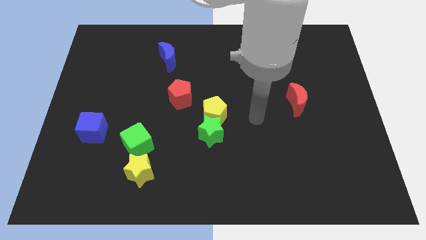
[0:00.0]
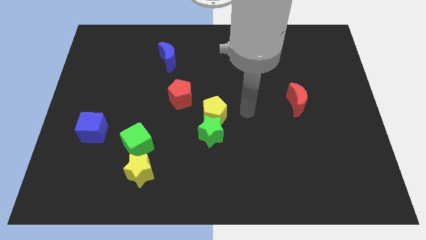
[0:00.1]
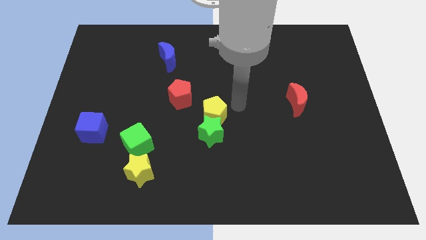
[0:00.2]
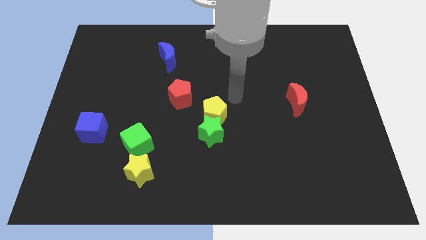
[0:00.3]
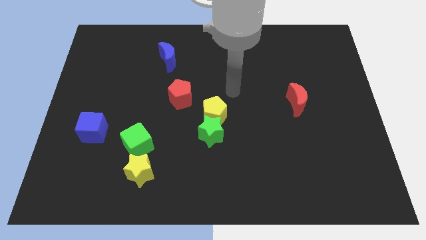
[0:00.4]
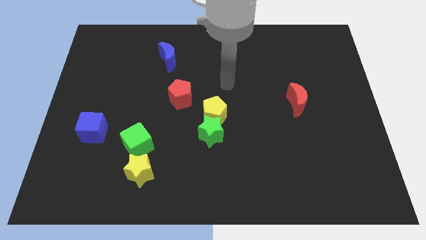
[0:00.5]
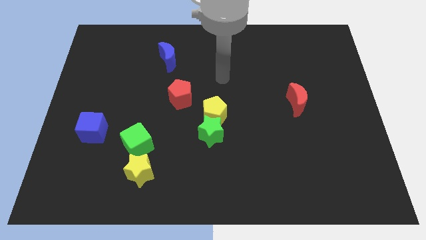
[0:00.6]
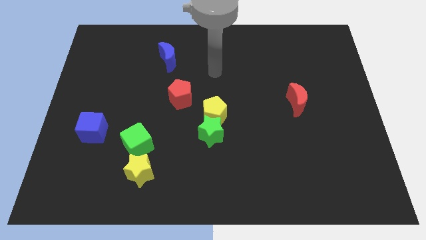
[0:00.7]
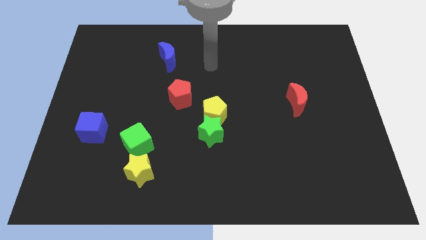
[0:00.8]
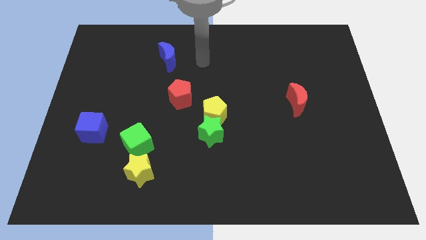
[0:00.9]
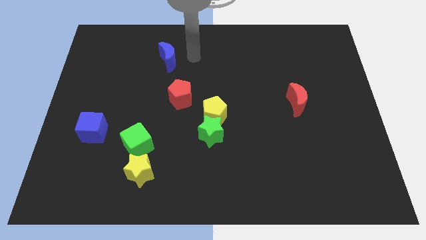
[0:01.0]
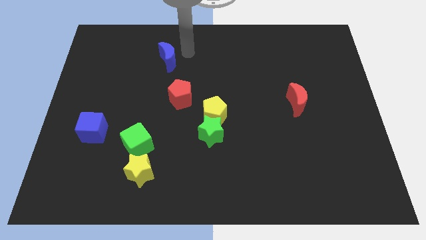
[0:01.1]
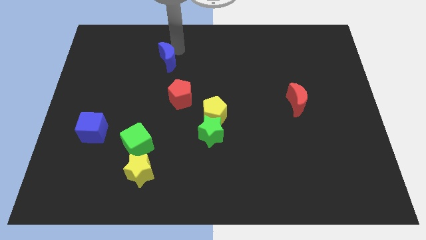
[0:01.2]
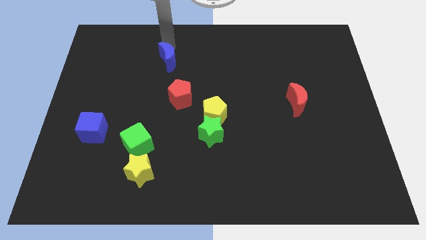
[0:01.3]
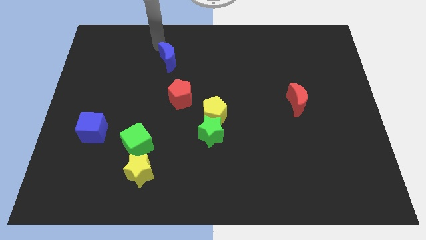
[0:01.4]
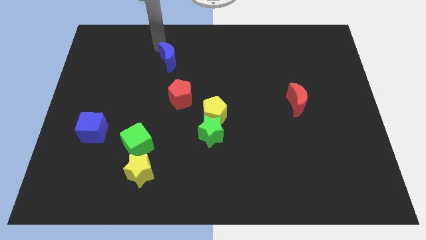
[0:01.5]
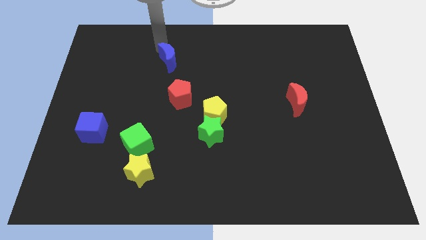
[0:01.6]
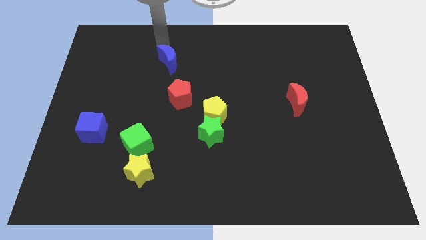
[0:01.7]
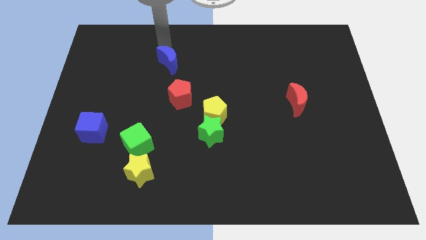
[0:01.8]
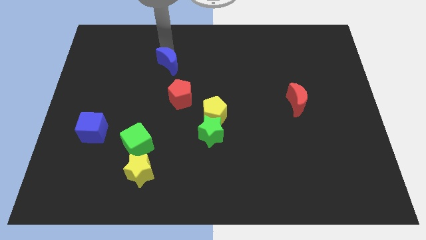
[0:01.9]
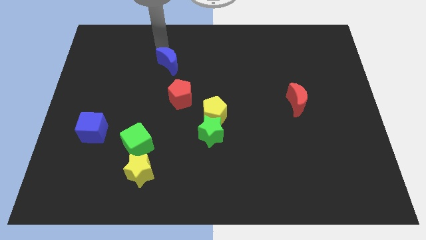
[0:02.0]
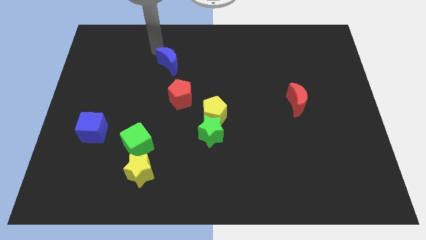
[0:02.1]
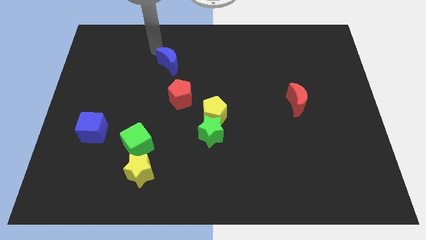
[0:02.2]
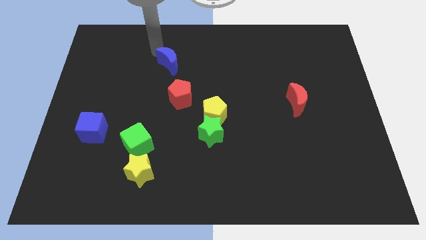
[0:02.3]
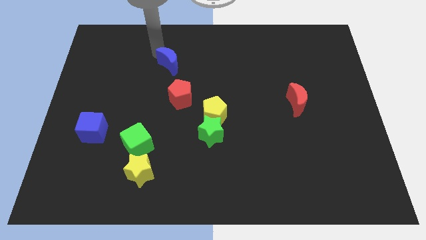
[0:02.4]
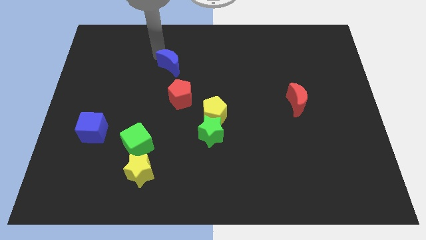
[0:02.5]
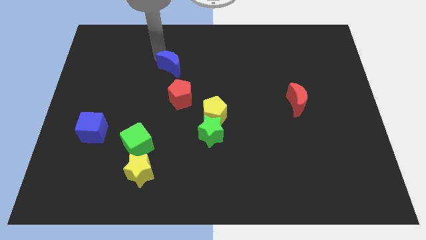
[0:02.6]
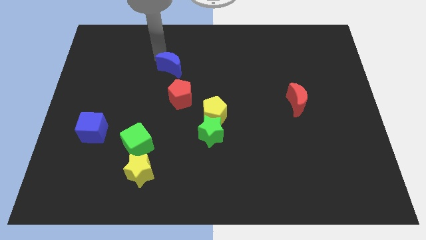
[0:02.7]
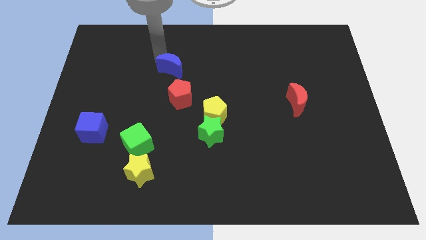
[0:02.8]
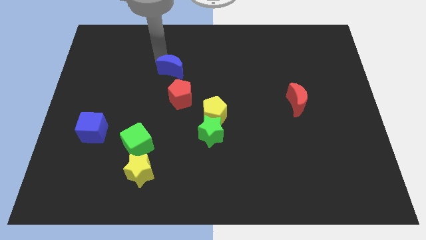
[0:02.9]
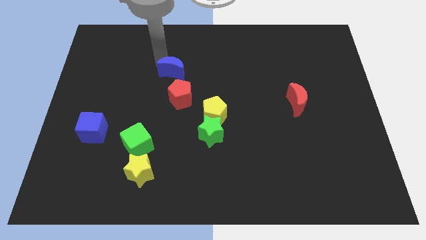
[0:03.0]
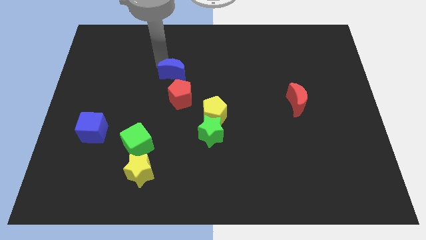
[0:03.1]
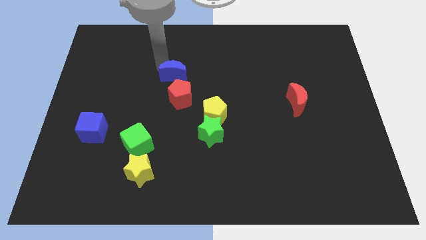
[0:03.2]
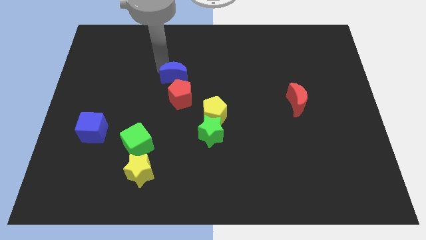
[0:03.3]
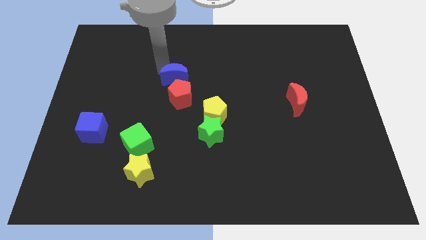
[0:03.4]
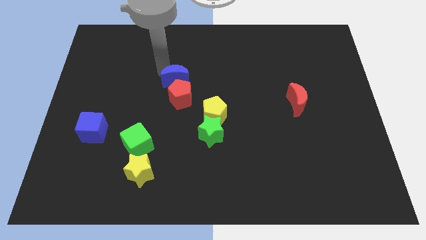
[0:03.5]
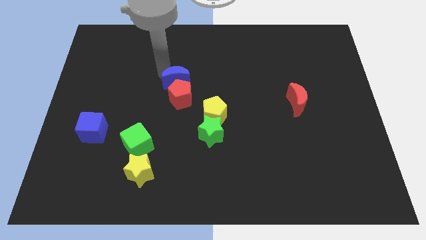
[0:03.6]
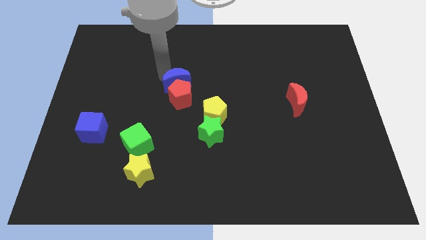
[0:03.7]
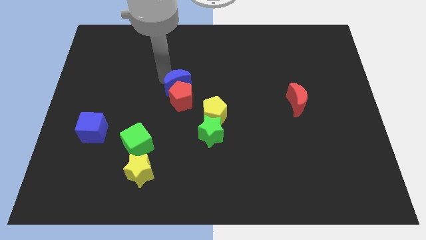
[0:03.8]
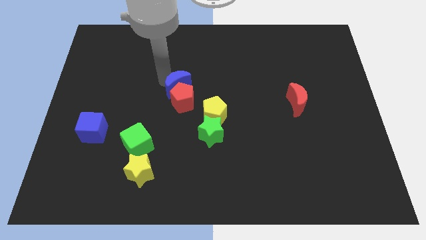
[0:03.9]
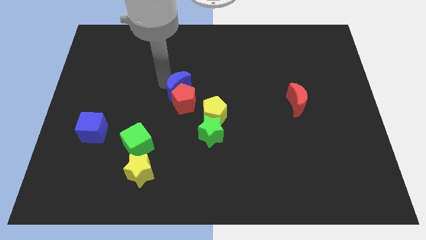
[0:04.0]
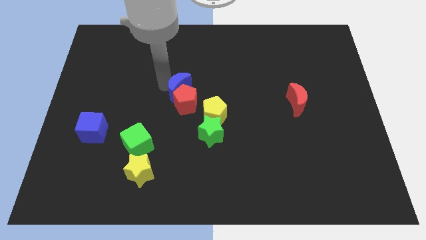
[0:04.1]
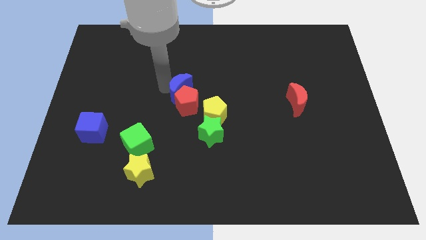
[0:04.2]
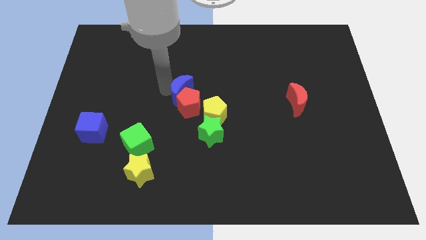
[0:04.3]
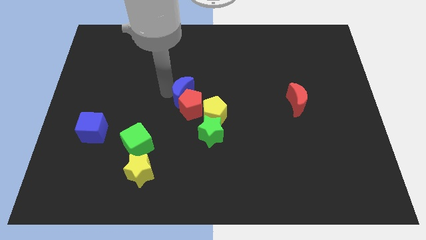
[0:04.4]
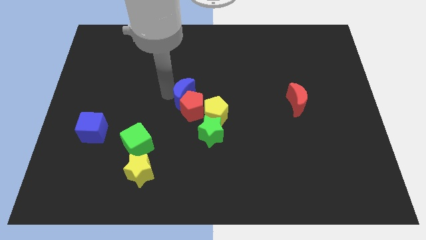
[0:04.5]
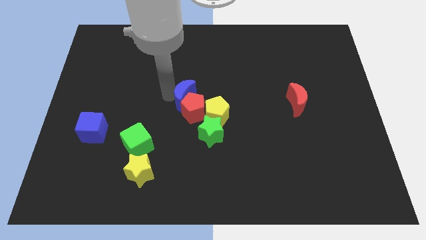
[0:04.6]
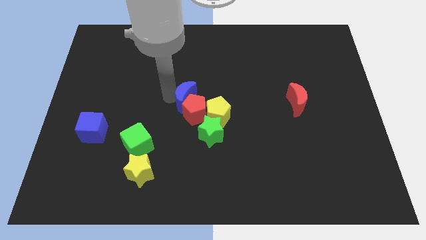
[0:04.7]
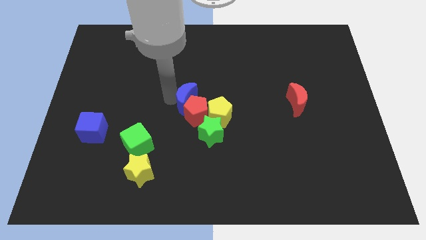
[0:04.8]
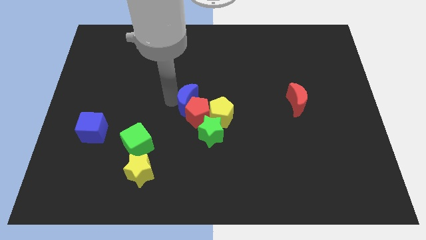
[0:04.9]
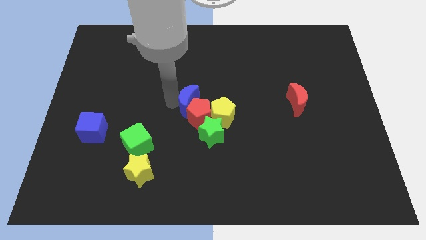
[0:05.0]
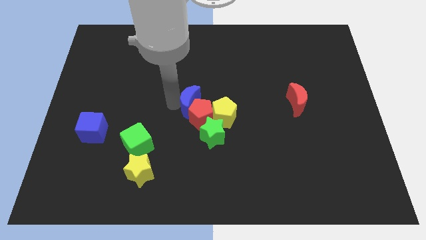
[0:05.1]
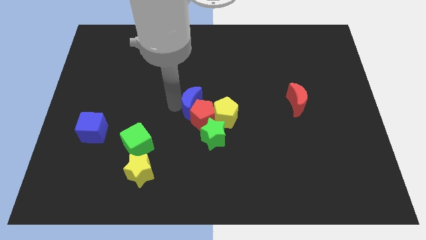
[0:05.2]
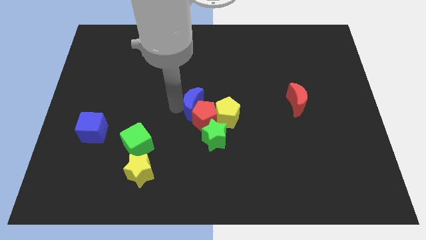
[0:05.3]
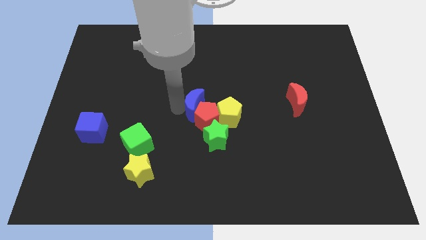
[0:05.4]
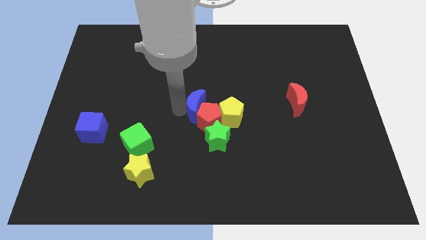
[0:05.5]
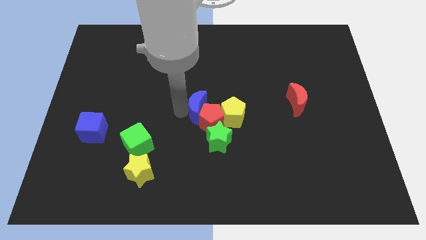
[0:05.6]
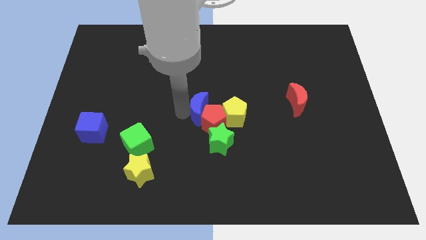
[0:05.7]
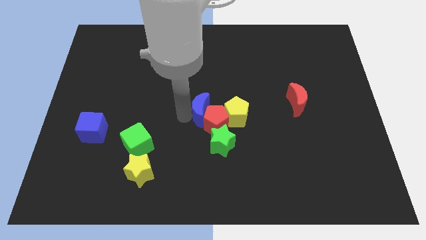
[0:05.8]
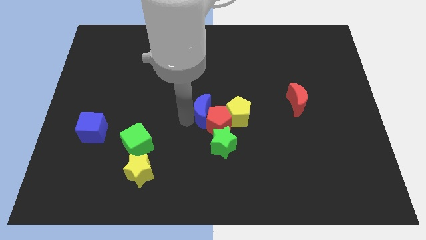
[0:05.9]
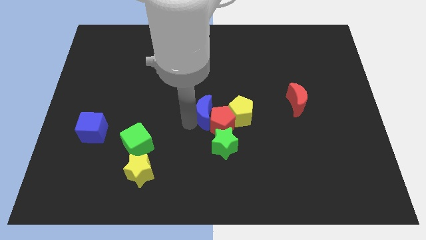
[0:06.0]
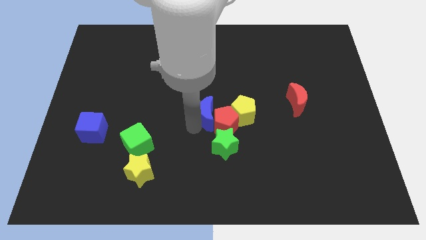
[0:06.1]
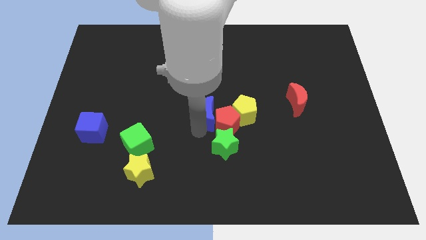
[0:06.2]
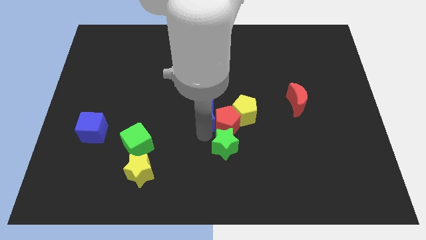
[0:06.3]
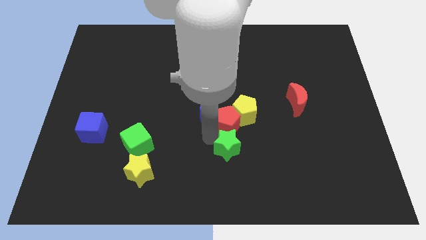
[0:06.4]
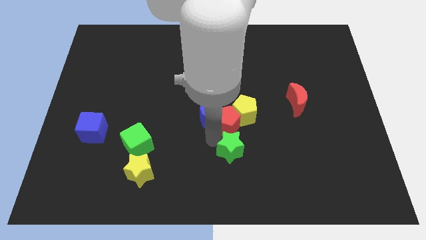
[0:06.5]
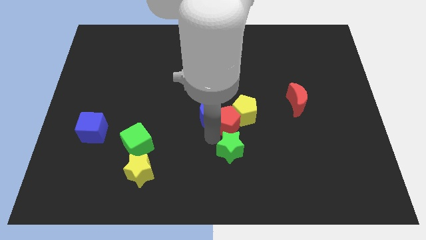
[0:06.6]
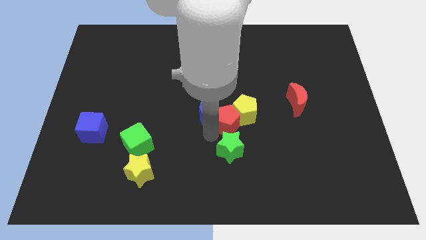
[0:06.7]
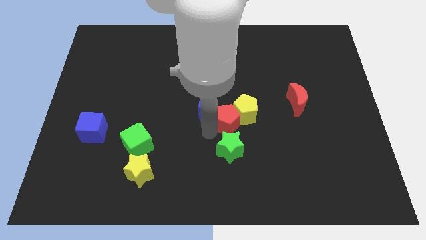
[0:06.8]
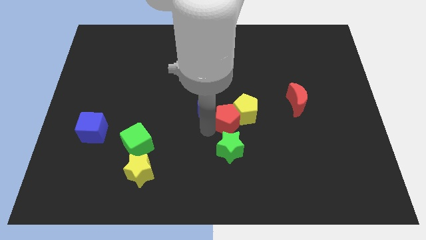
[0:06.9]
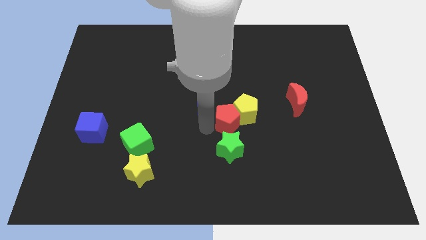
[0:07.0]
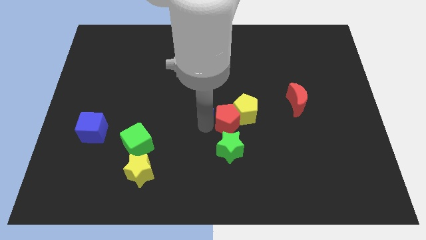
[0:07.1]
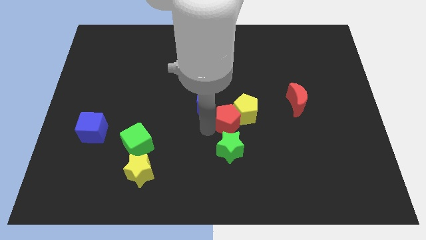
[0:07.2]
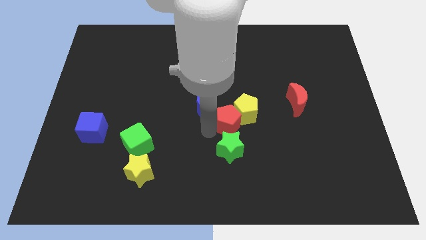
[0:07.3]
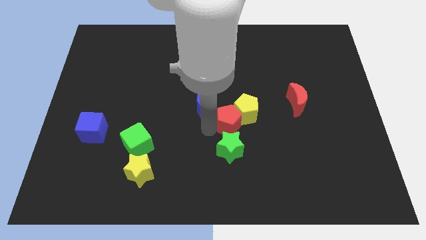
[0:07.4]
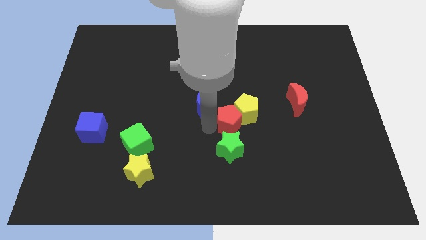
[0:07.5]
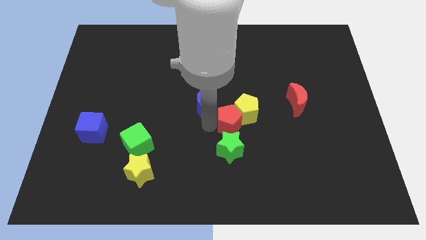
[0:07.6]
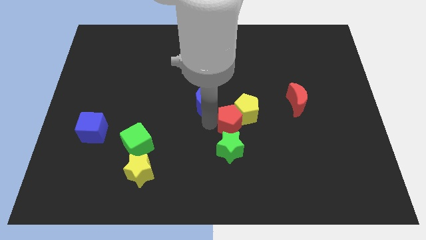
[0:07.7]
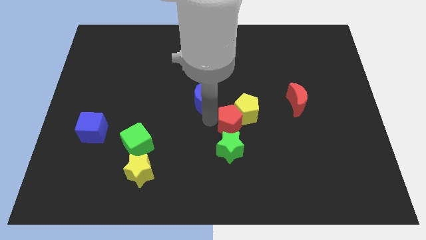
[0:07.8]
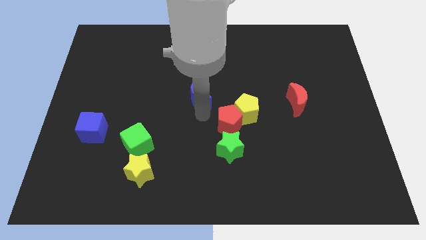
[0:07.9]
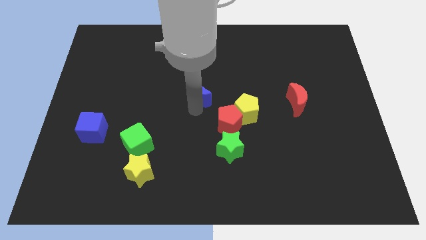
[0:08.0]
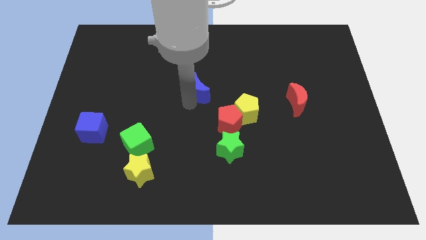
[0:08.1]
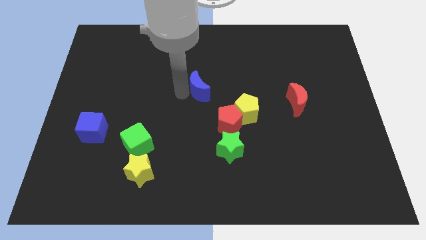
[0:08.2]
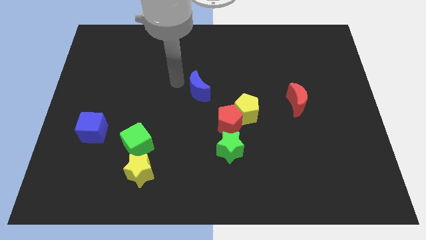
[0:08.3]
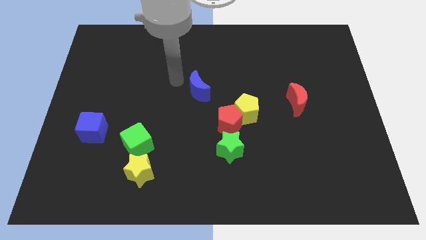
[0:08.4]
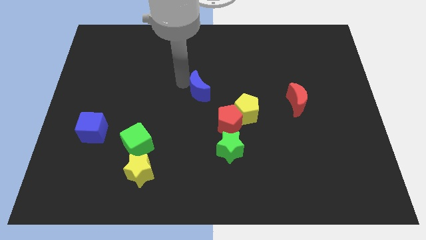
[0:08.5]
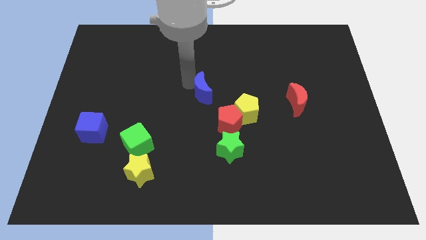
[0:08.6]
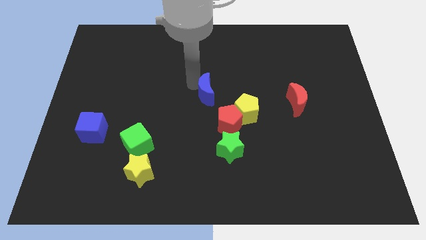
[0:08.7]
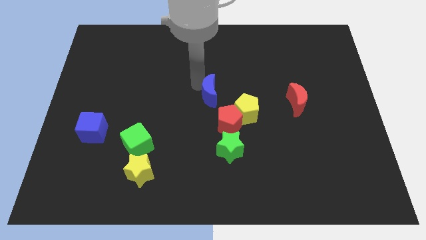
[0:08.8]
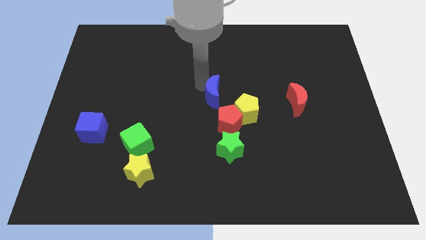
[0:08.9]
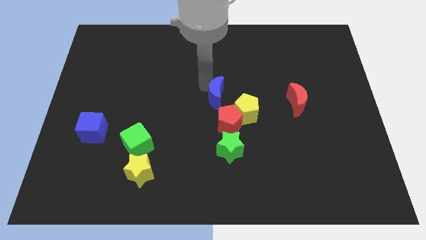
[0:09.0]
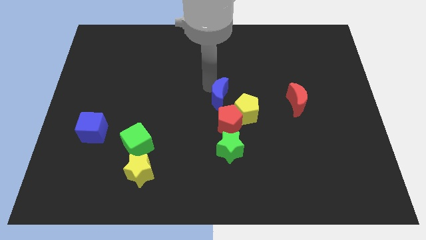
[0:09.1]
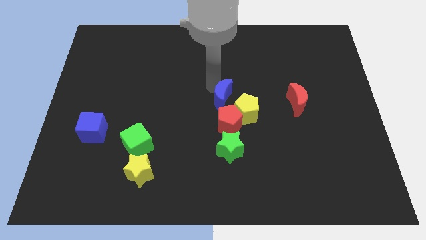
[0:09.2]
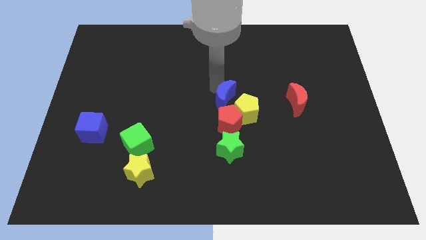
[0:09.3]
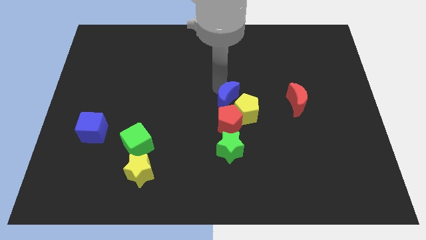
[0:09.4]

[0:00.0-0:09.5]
put the blue moon to the yellow pentagon
